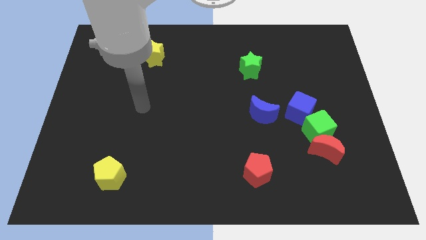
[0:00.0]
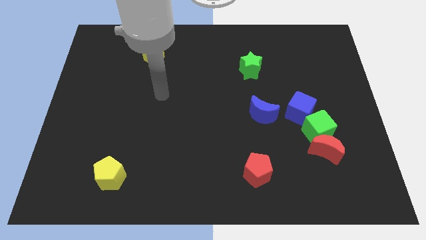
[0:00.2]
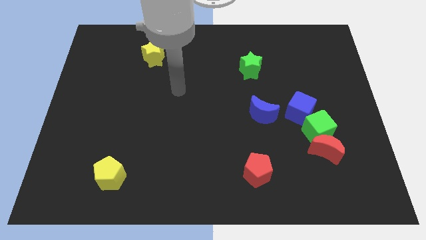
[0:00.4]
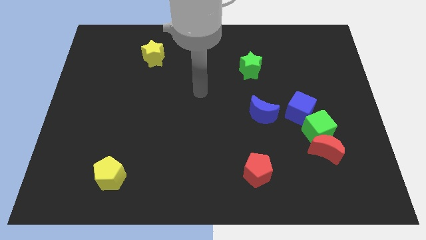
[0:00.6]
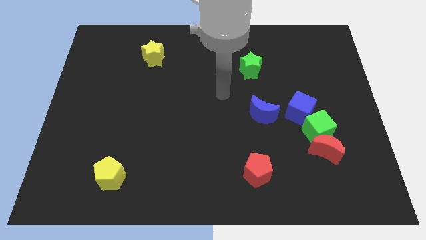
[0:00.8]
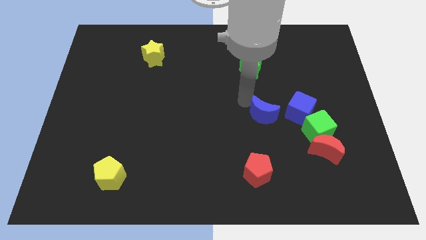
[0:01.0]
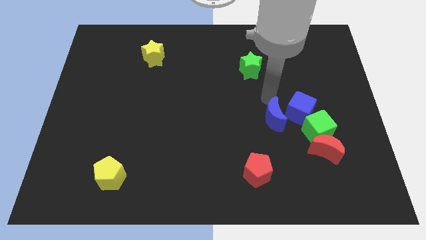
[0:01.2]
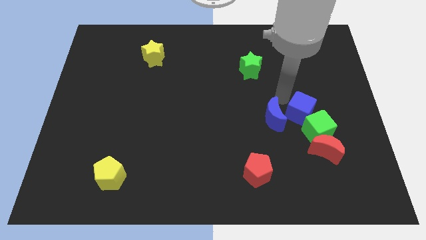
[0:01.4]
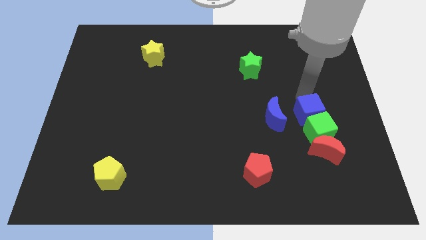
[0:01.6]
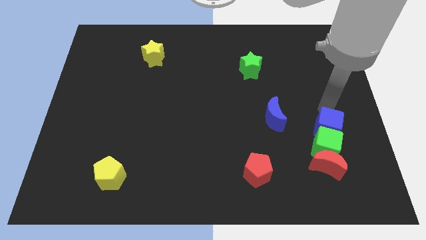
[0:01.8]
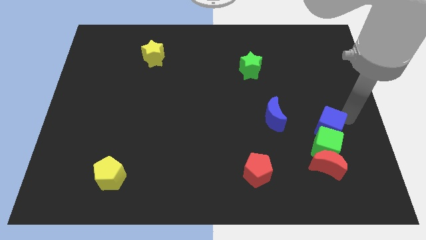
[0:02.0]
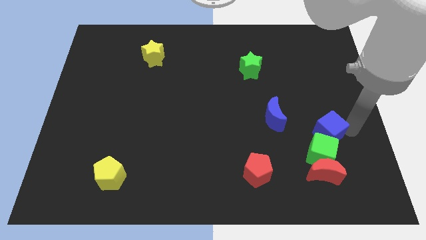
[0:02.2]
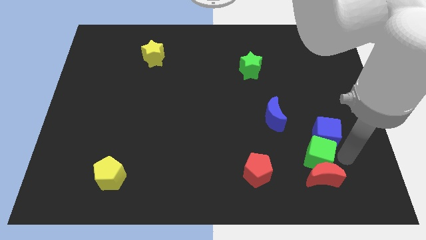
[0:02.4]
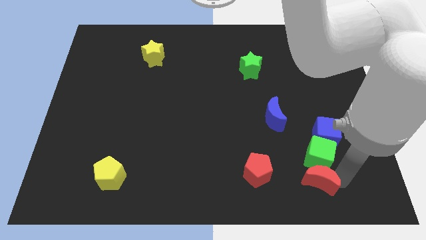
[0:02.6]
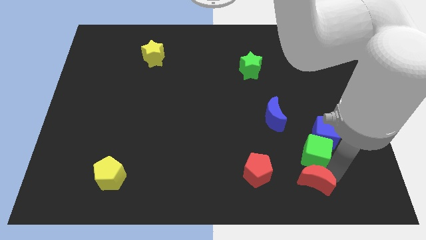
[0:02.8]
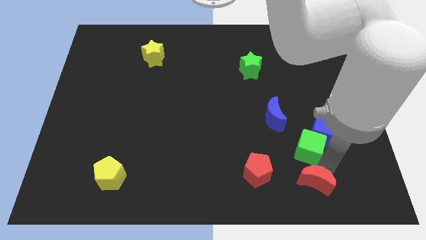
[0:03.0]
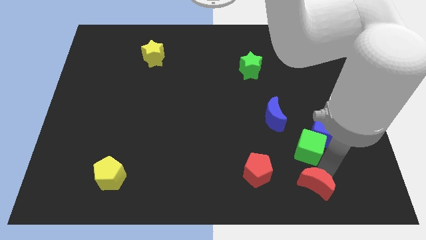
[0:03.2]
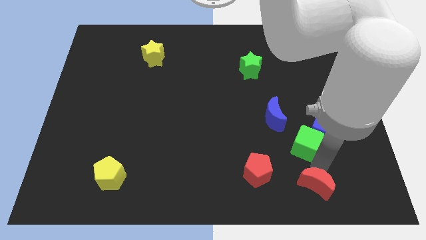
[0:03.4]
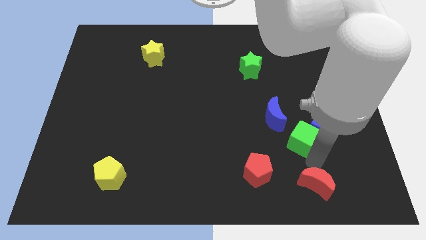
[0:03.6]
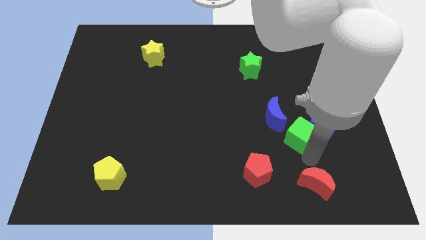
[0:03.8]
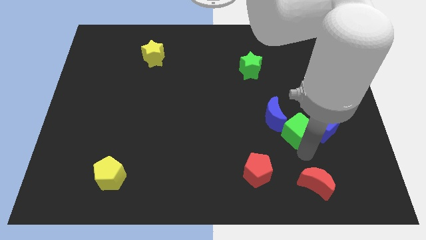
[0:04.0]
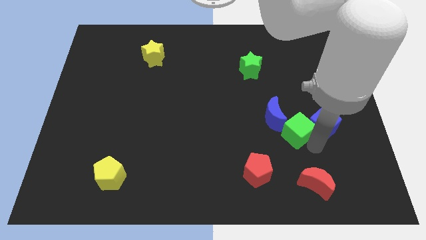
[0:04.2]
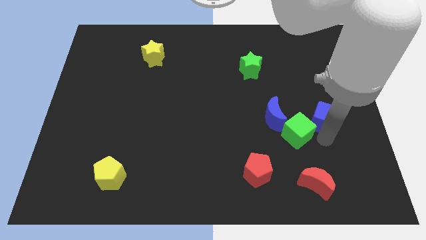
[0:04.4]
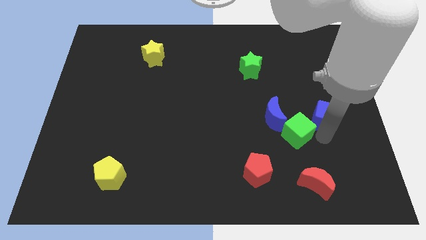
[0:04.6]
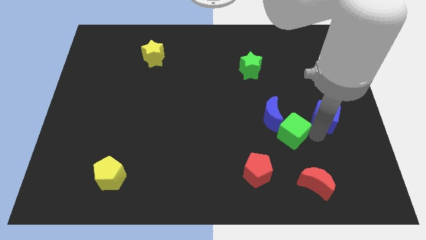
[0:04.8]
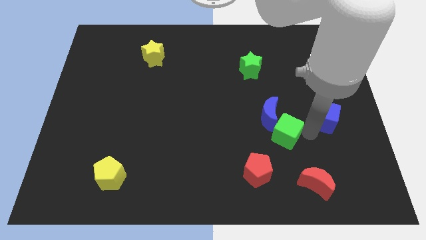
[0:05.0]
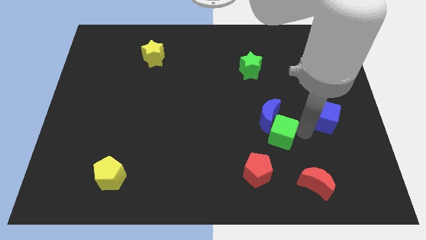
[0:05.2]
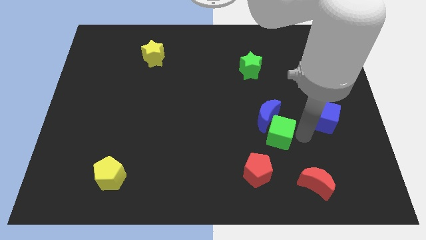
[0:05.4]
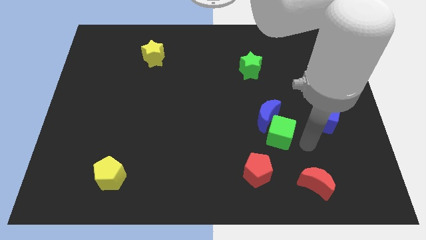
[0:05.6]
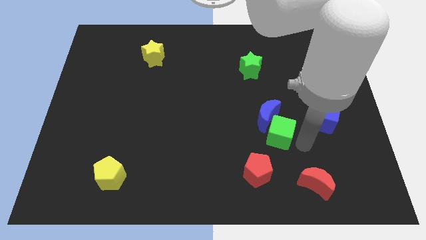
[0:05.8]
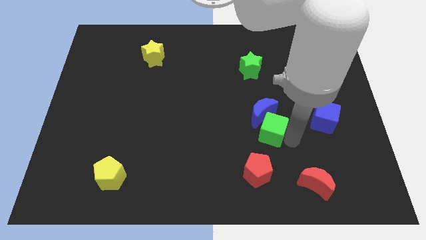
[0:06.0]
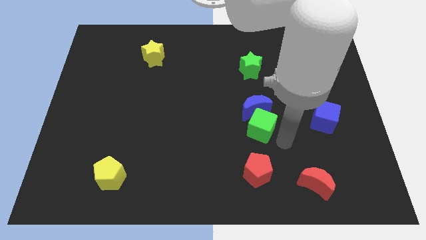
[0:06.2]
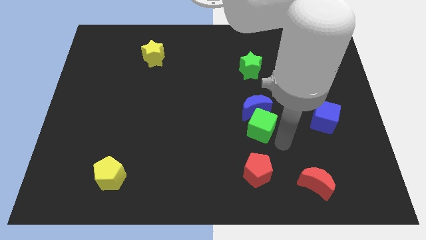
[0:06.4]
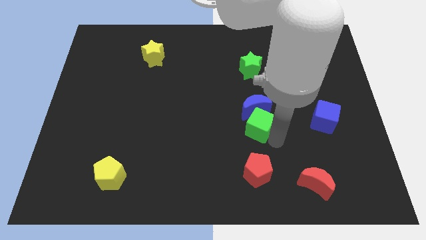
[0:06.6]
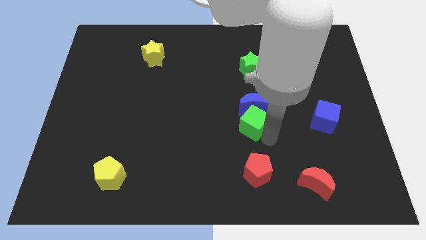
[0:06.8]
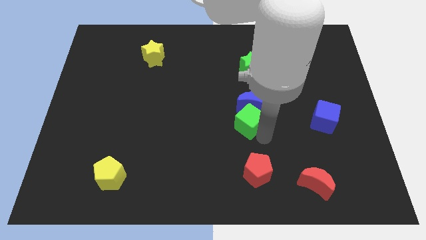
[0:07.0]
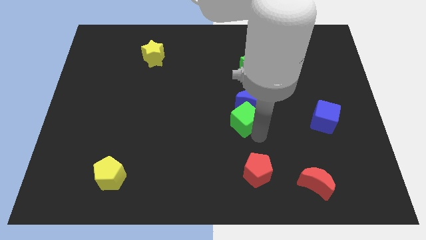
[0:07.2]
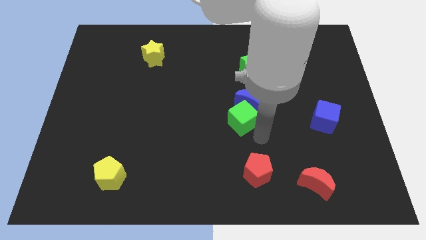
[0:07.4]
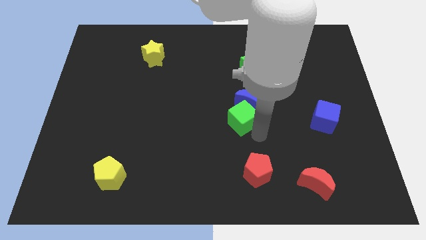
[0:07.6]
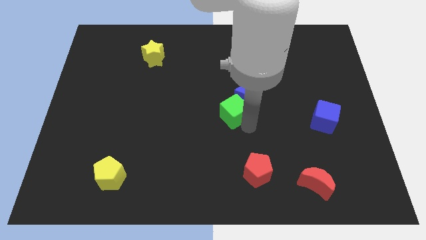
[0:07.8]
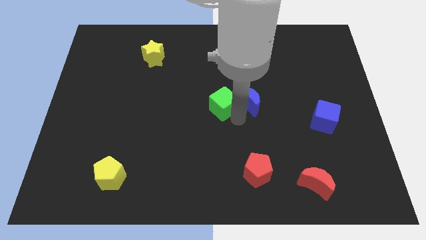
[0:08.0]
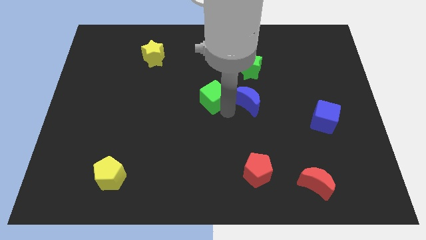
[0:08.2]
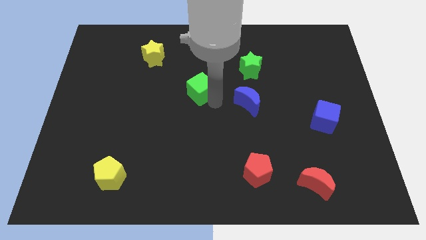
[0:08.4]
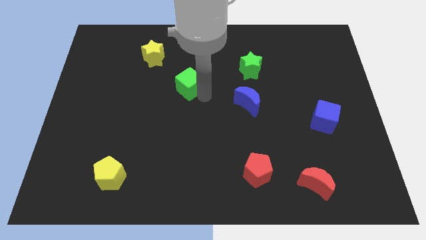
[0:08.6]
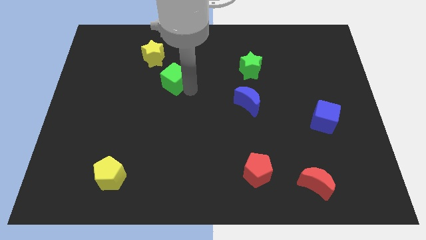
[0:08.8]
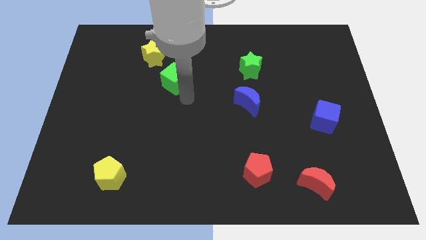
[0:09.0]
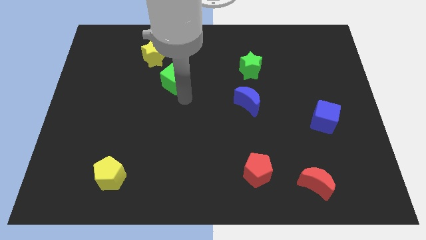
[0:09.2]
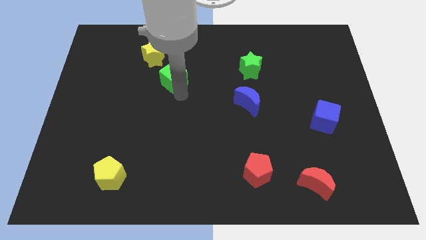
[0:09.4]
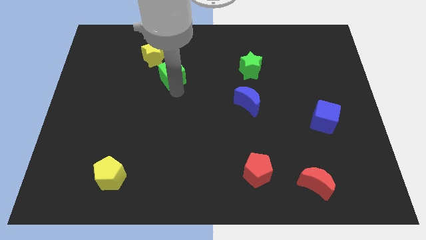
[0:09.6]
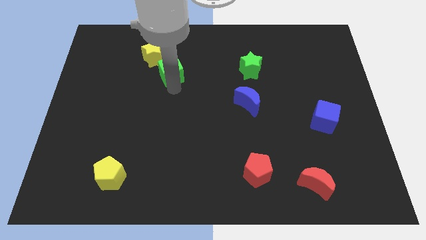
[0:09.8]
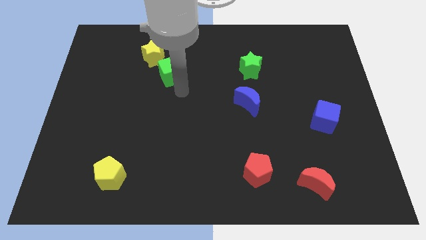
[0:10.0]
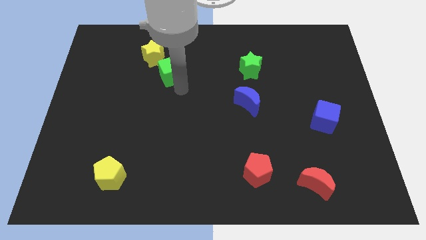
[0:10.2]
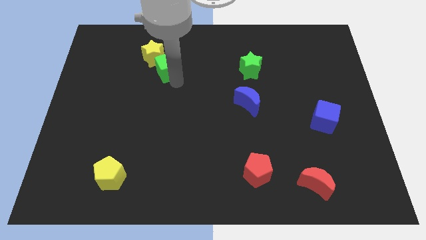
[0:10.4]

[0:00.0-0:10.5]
slide the green cube to the yellow star
